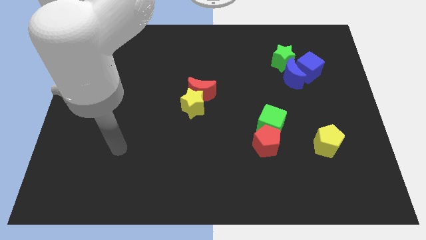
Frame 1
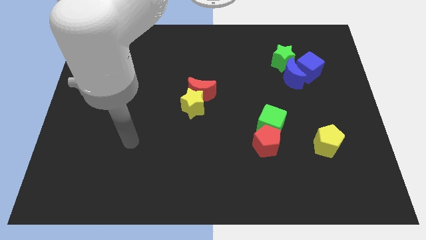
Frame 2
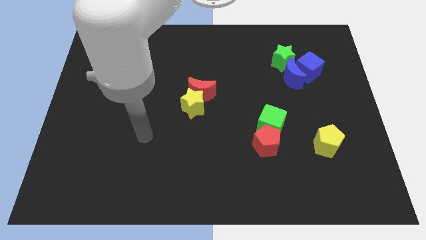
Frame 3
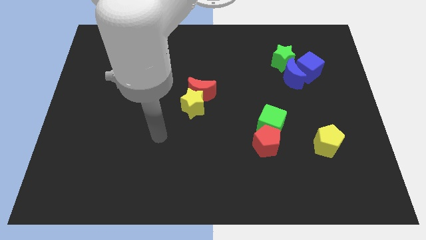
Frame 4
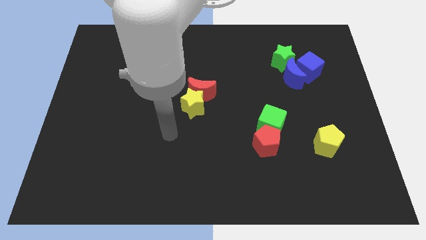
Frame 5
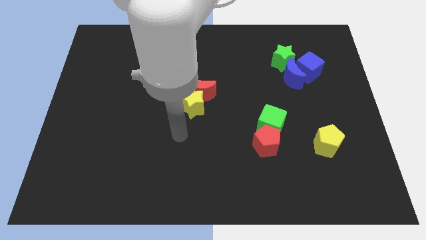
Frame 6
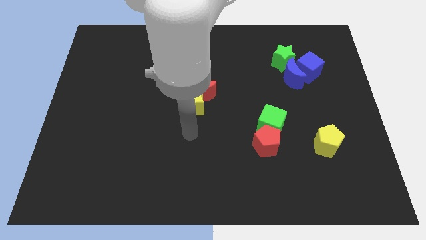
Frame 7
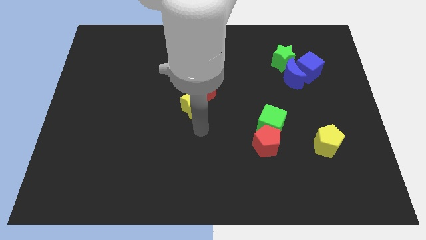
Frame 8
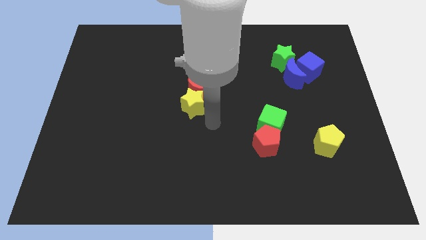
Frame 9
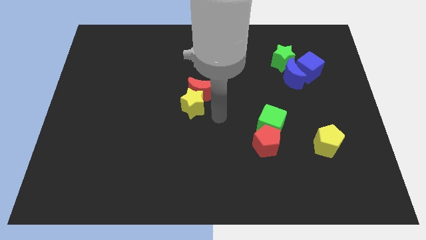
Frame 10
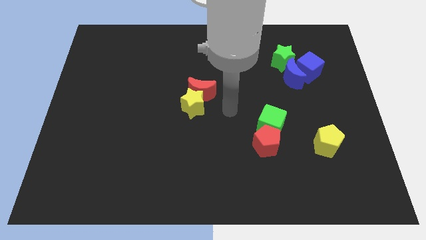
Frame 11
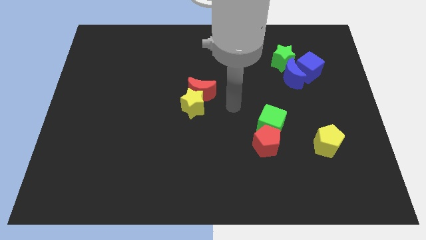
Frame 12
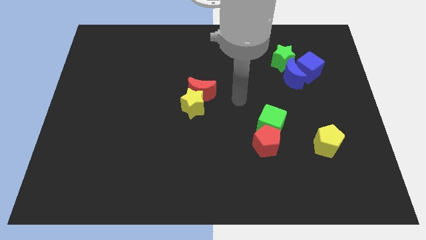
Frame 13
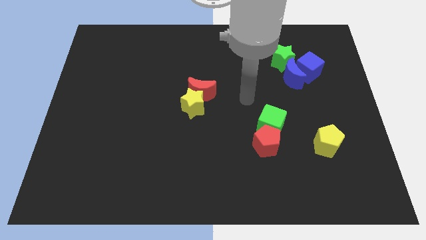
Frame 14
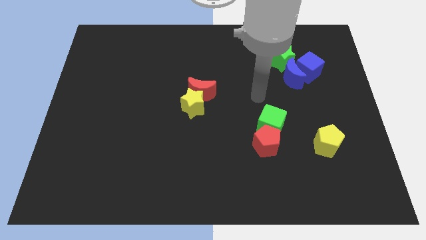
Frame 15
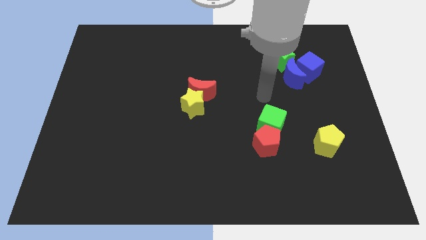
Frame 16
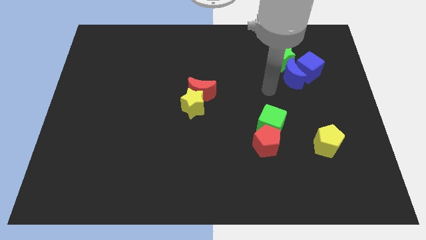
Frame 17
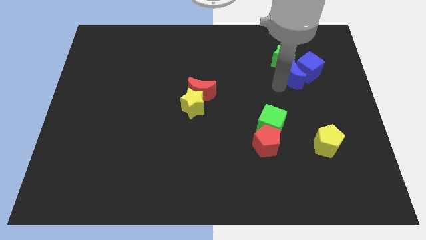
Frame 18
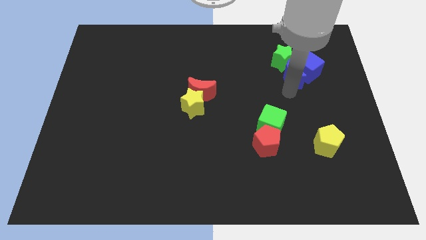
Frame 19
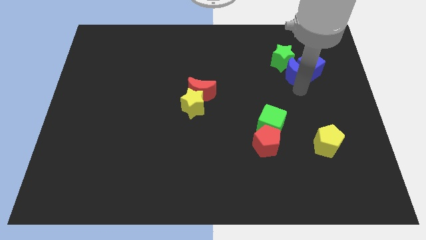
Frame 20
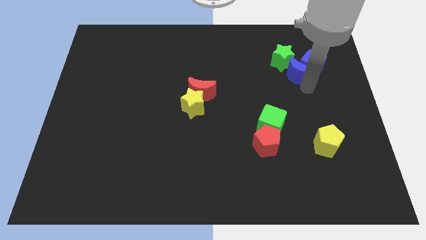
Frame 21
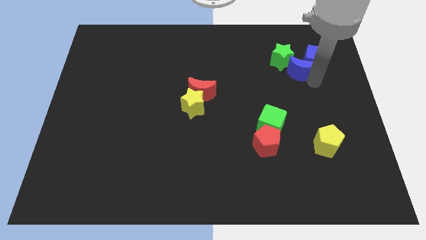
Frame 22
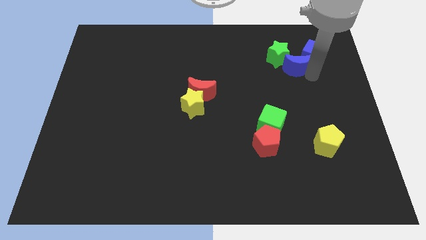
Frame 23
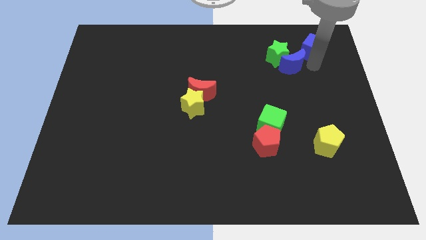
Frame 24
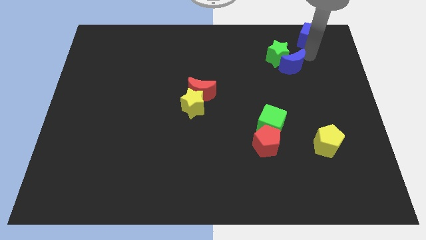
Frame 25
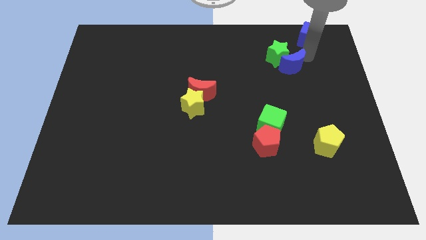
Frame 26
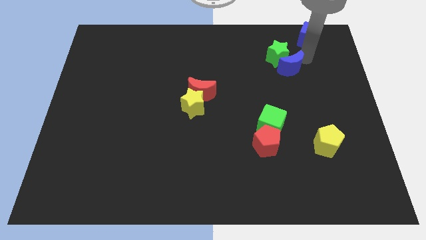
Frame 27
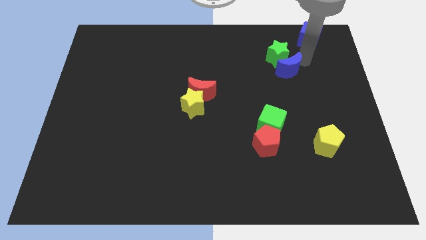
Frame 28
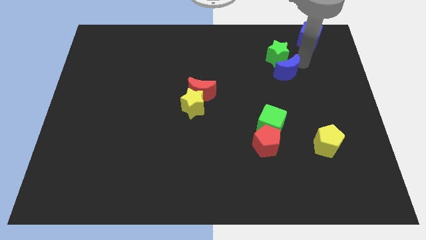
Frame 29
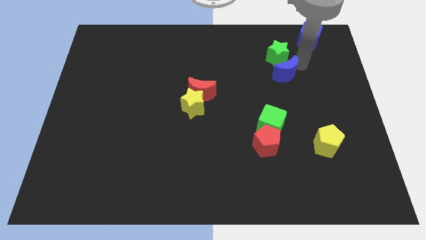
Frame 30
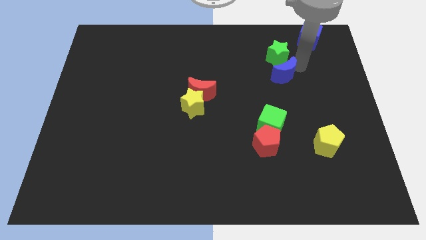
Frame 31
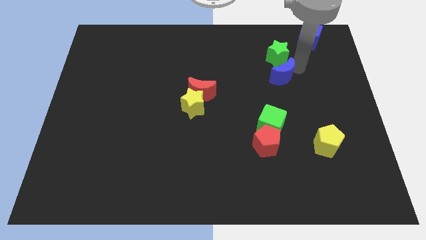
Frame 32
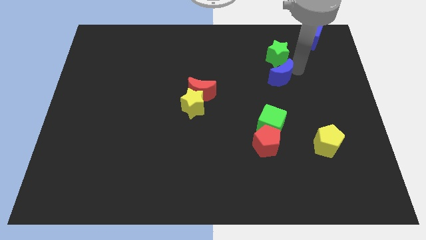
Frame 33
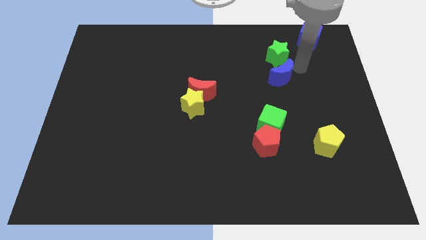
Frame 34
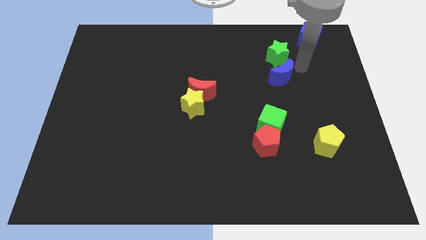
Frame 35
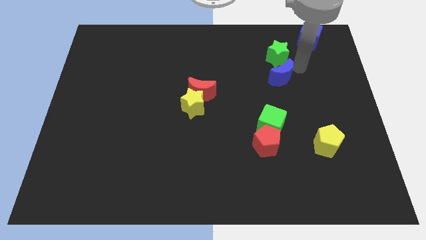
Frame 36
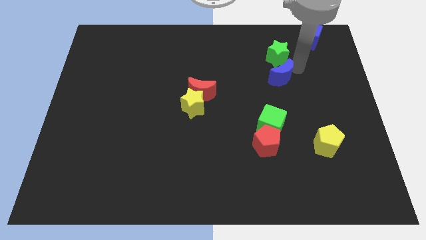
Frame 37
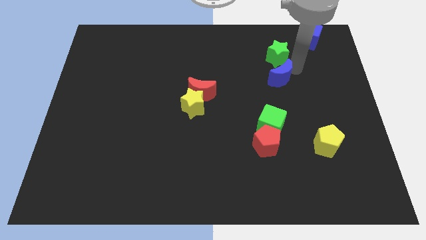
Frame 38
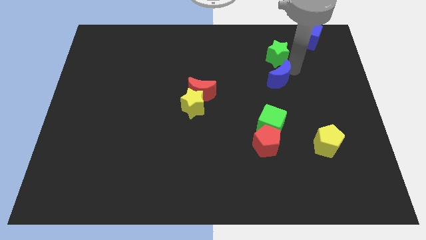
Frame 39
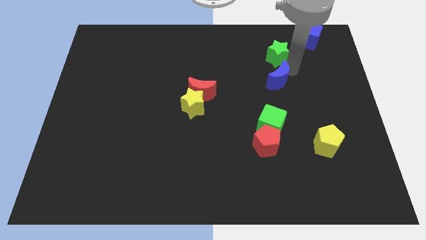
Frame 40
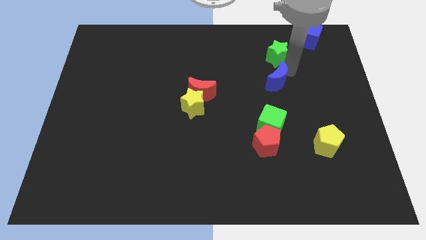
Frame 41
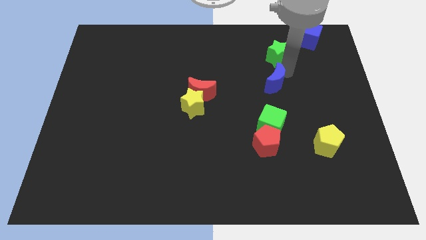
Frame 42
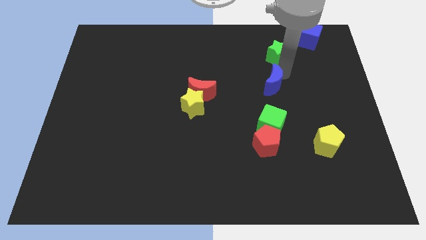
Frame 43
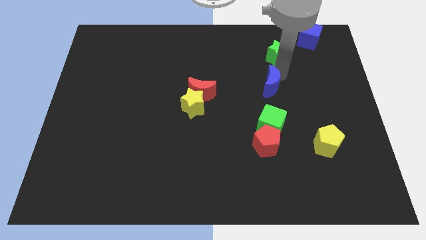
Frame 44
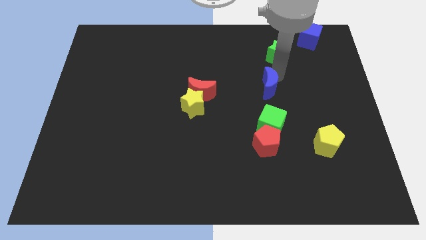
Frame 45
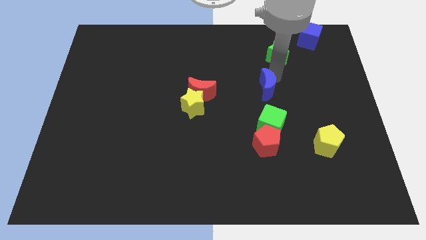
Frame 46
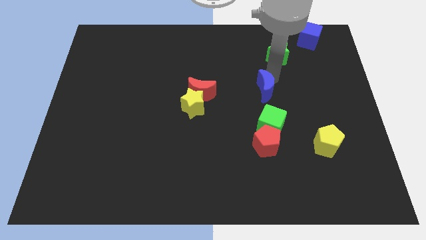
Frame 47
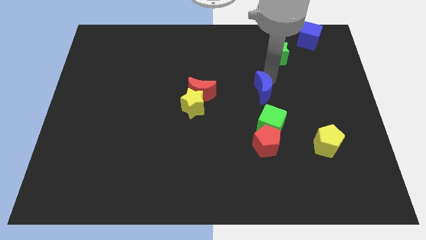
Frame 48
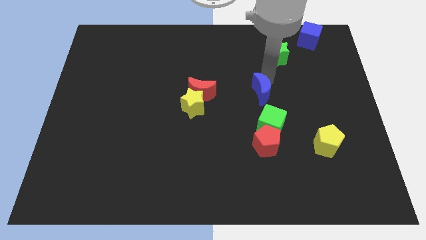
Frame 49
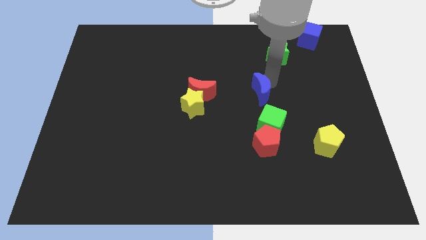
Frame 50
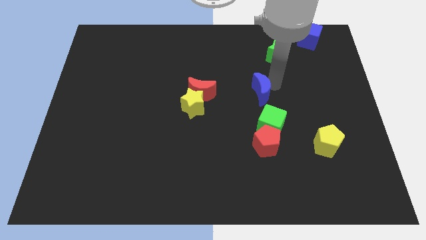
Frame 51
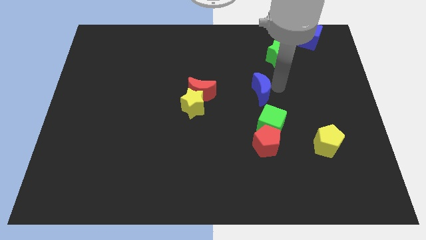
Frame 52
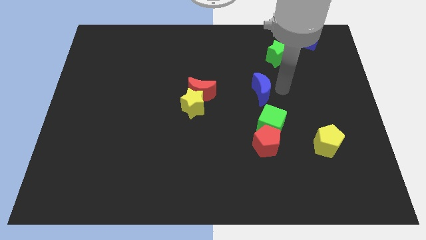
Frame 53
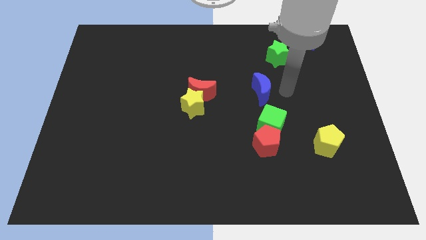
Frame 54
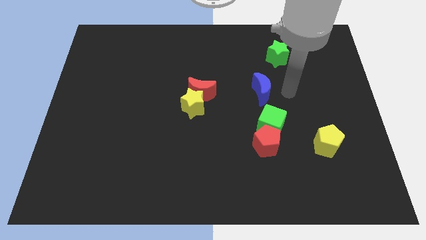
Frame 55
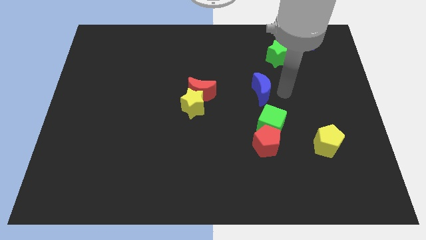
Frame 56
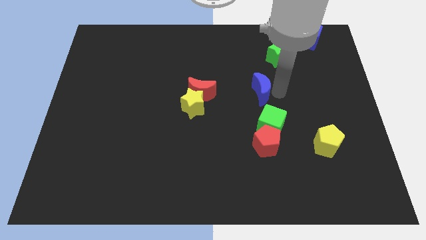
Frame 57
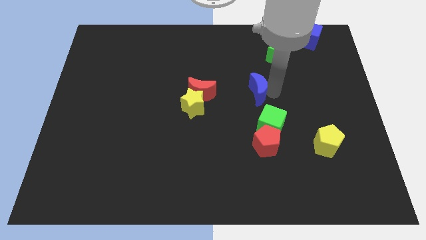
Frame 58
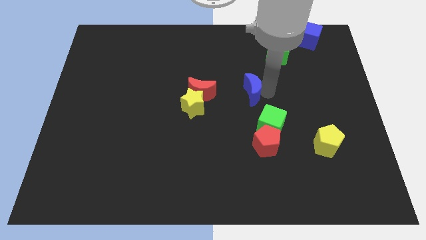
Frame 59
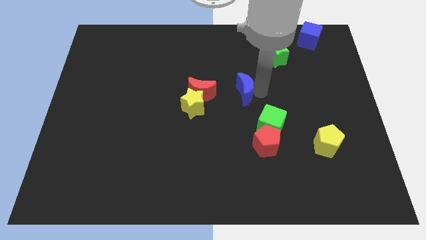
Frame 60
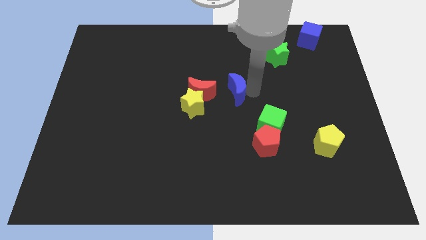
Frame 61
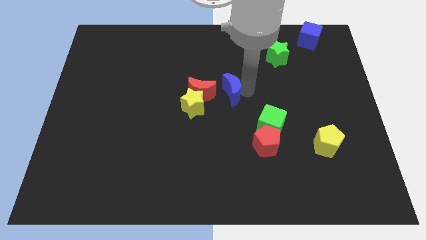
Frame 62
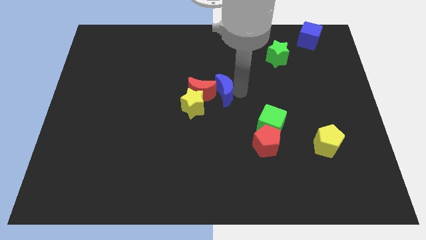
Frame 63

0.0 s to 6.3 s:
slide the blue moon towards the red moon

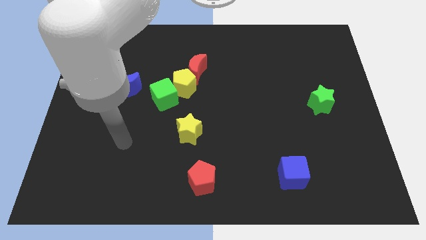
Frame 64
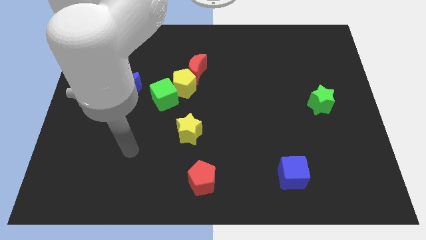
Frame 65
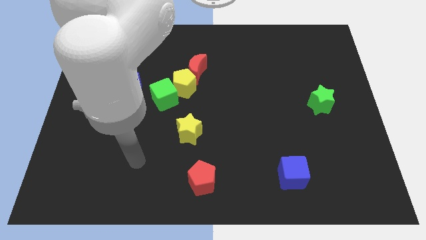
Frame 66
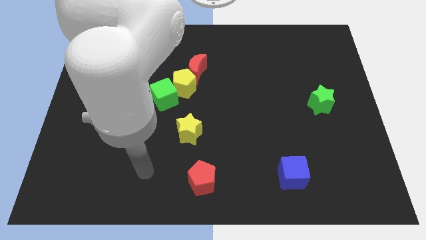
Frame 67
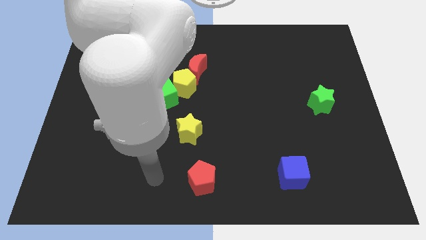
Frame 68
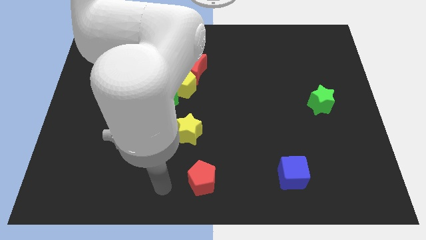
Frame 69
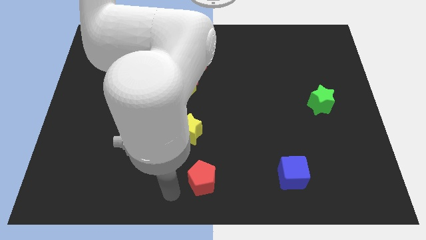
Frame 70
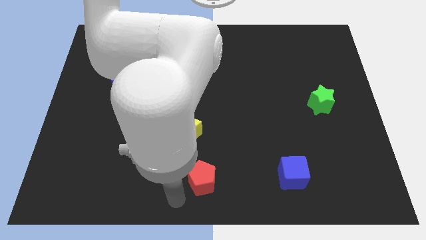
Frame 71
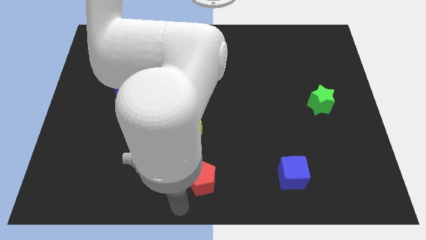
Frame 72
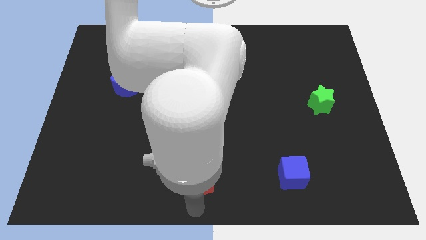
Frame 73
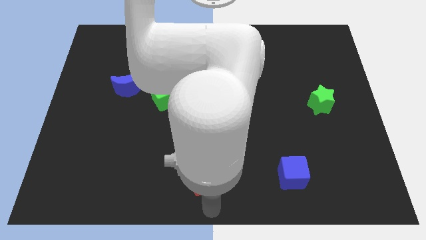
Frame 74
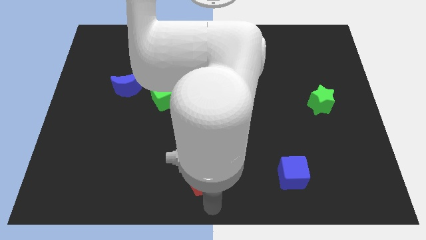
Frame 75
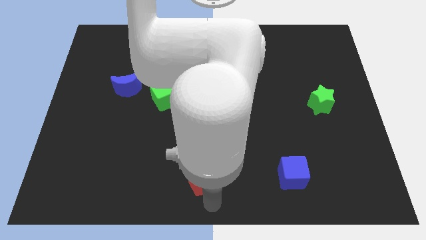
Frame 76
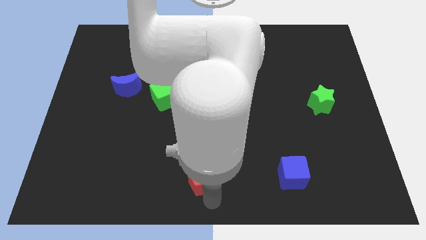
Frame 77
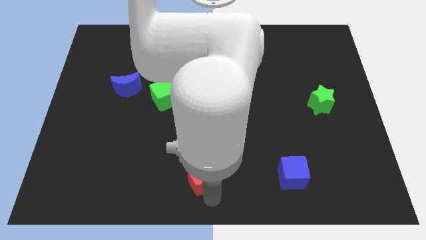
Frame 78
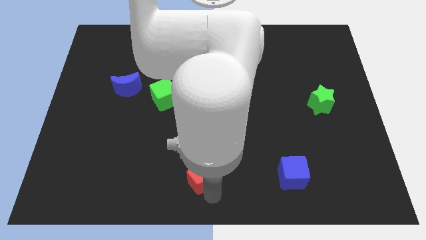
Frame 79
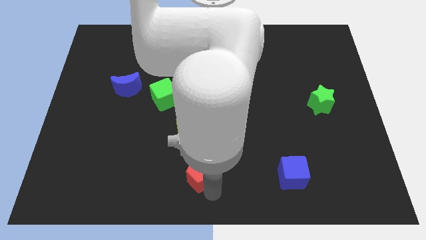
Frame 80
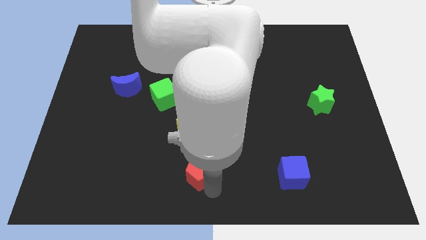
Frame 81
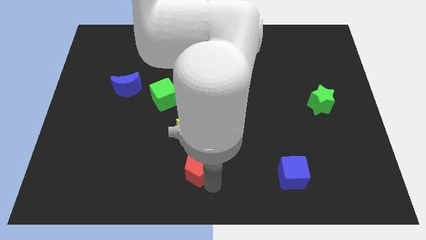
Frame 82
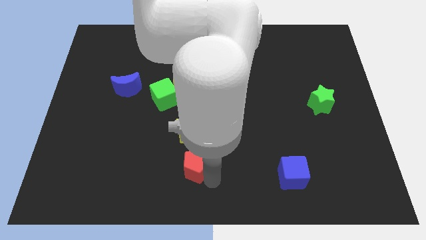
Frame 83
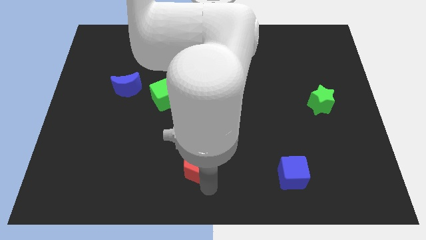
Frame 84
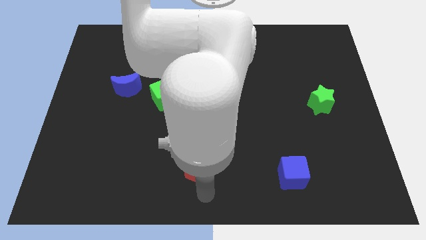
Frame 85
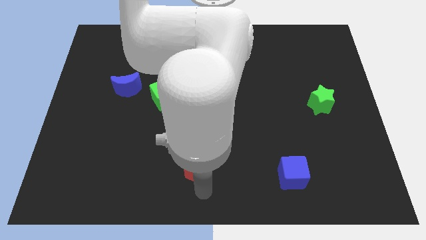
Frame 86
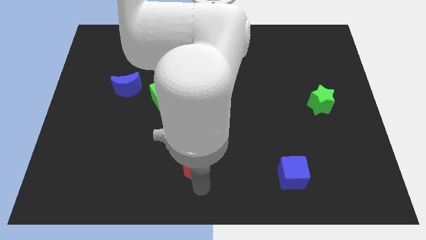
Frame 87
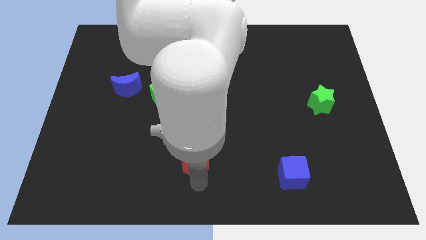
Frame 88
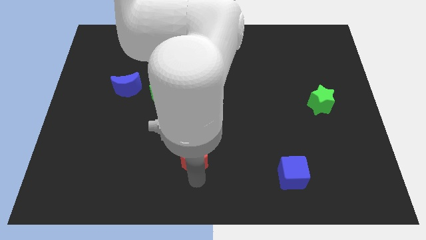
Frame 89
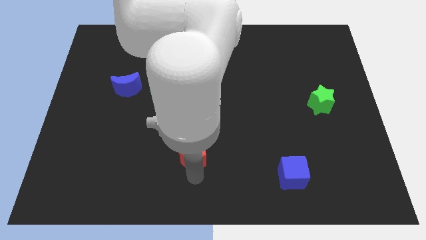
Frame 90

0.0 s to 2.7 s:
move the red pentagon next to the yellow star
